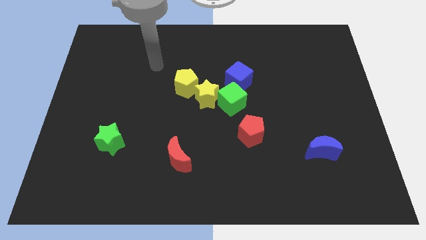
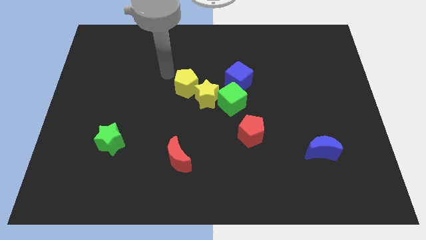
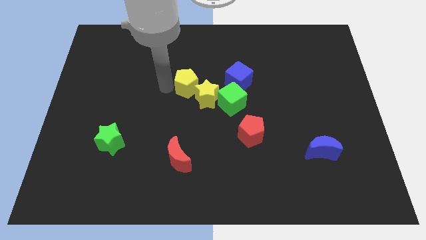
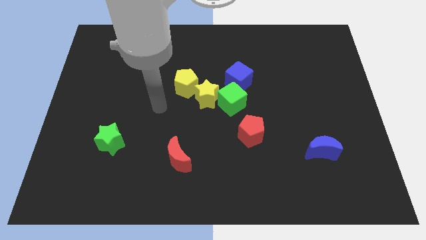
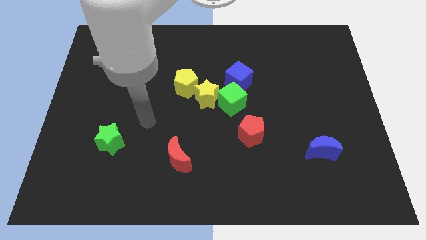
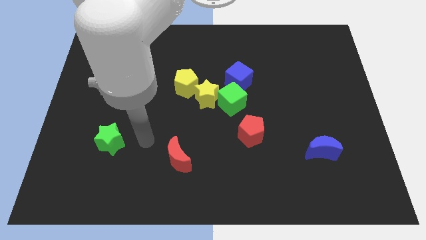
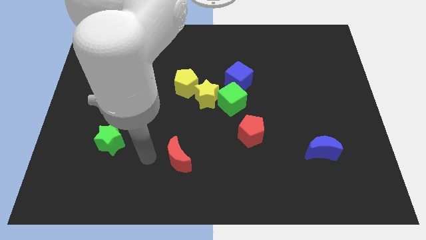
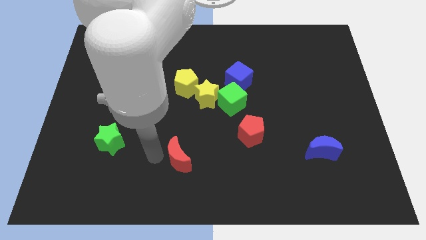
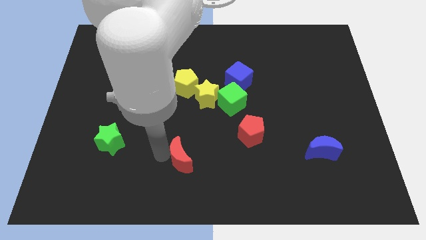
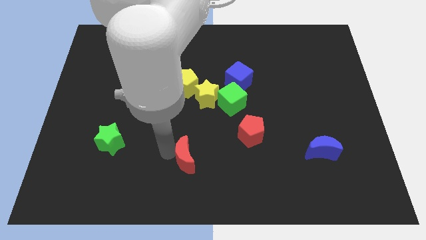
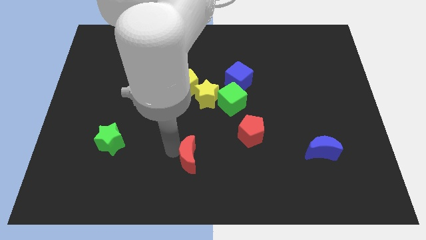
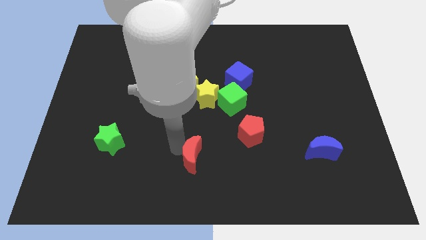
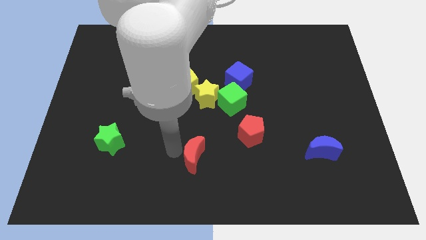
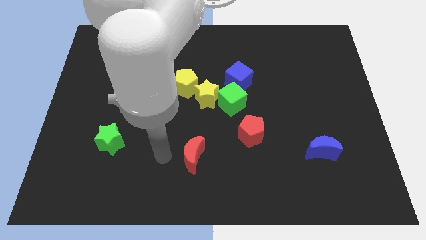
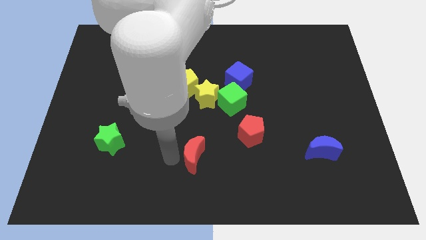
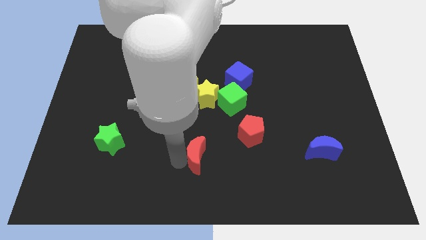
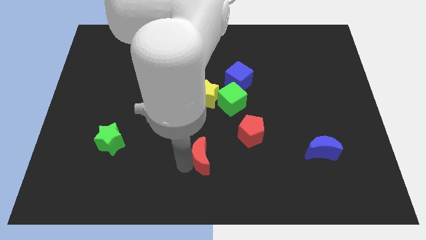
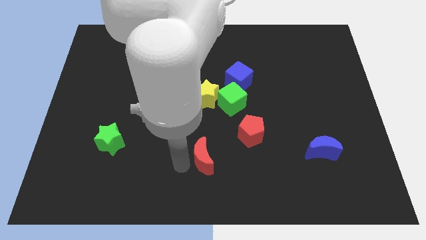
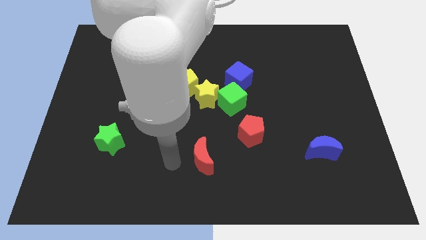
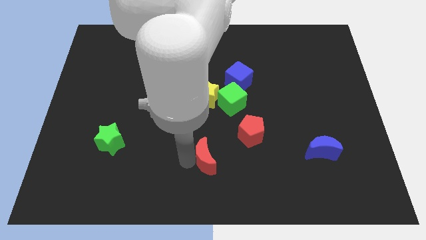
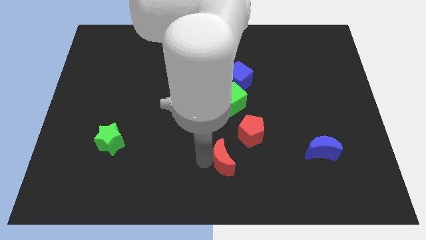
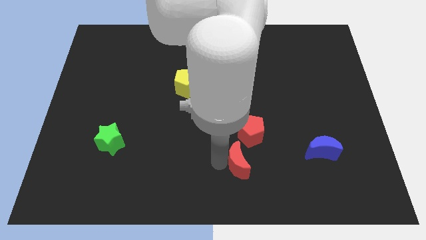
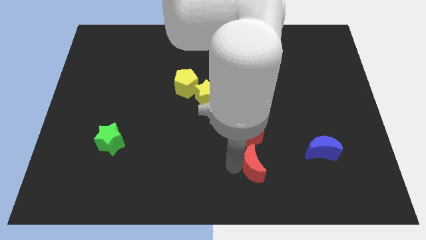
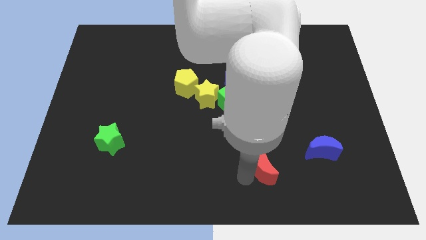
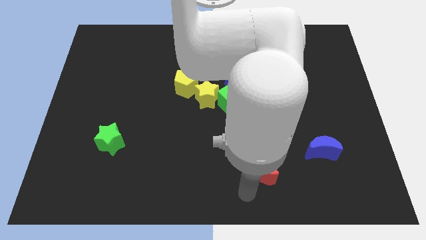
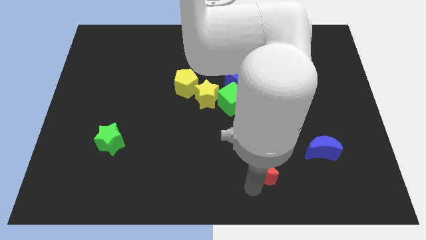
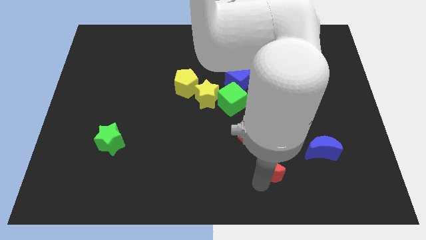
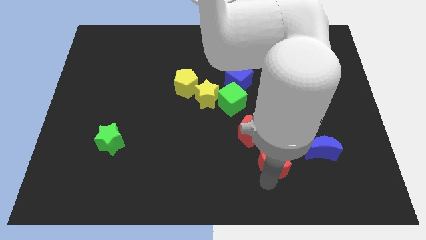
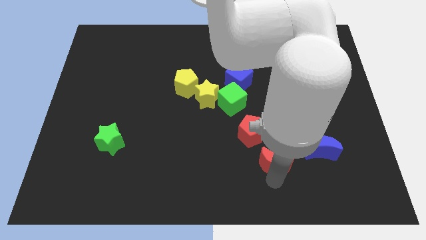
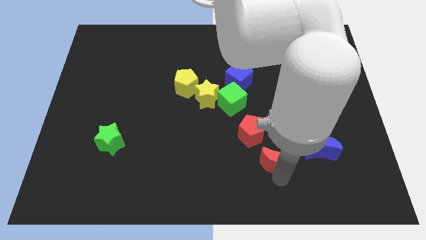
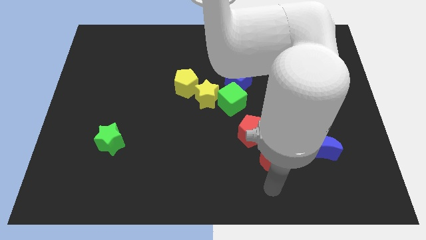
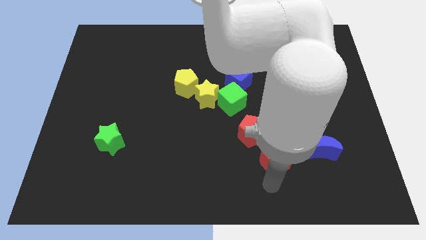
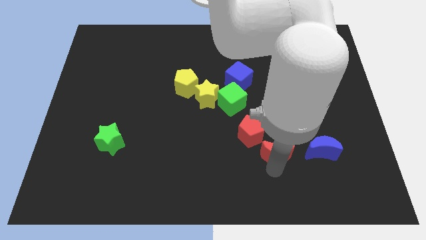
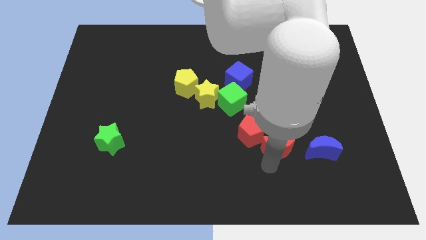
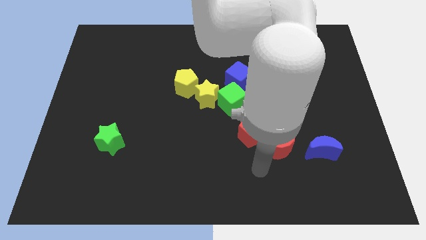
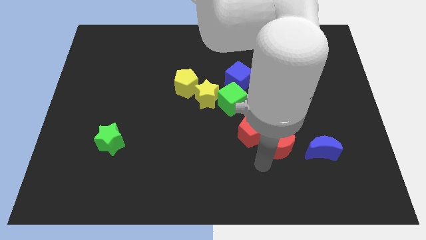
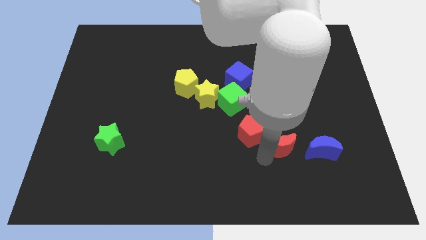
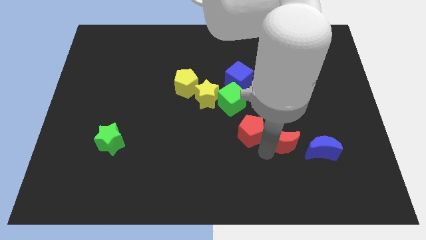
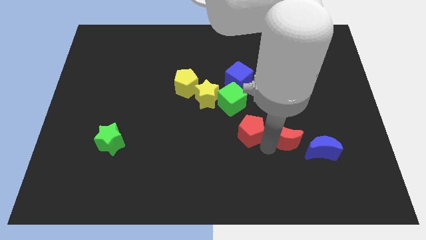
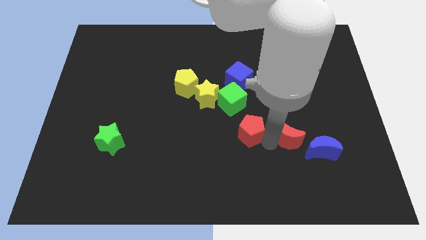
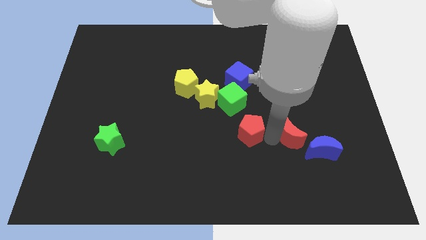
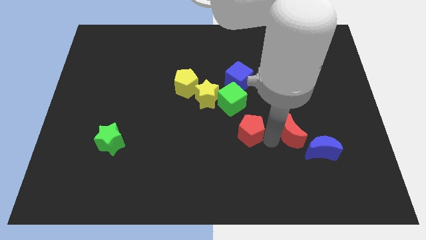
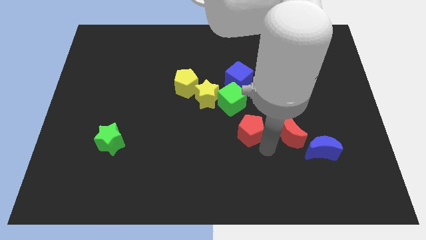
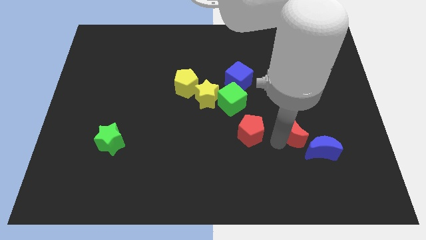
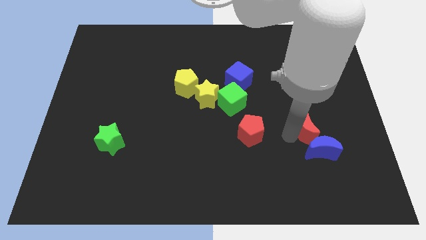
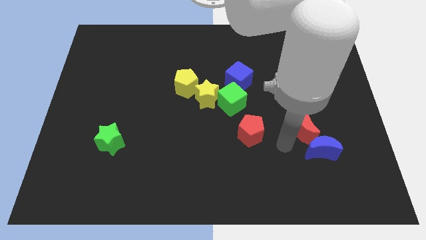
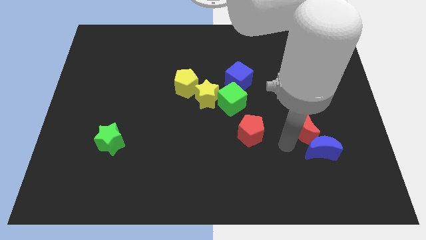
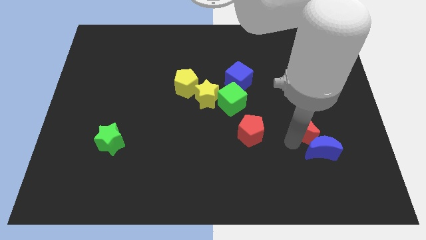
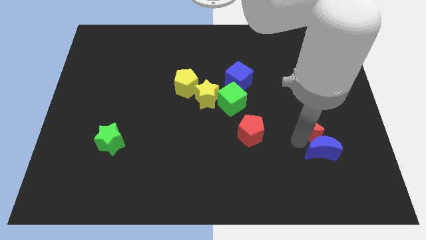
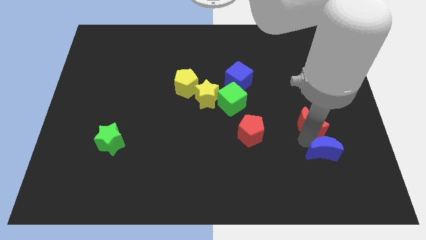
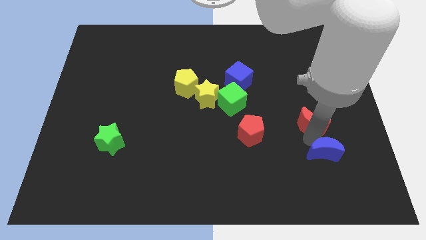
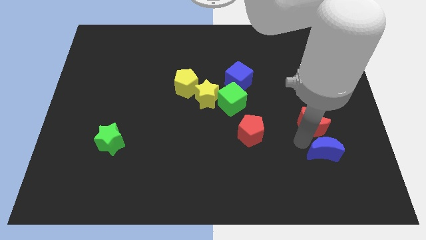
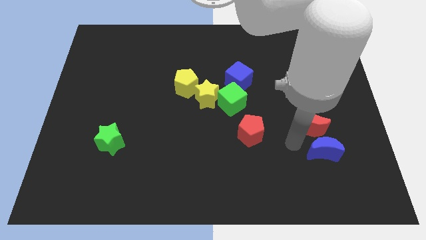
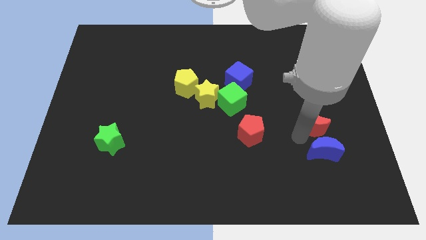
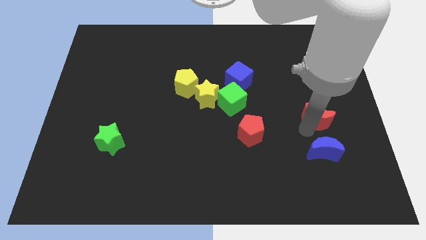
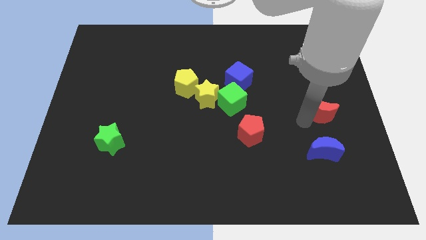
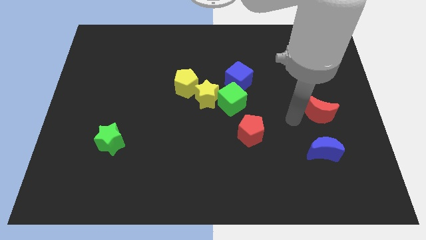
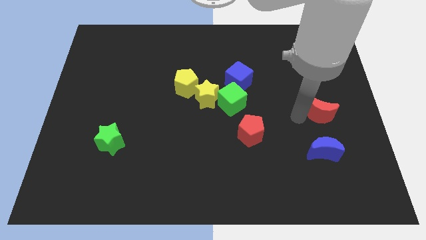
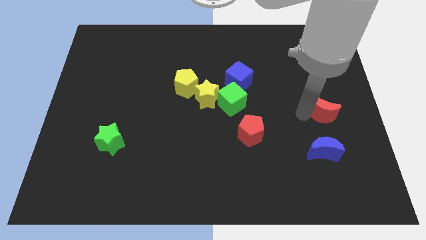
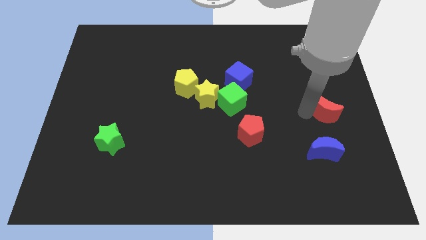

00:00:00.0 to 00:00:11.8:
slide the red moon to the right side
